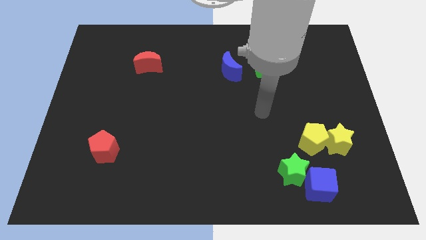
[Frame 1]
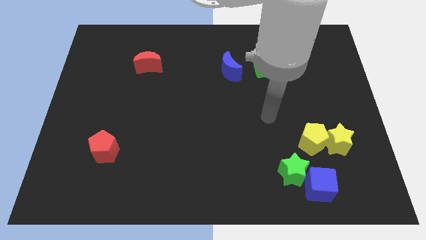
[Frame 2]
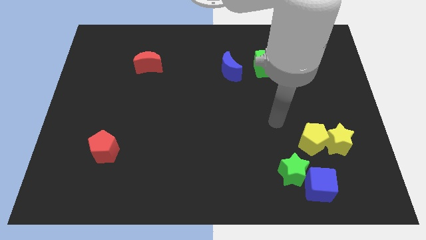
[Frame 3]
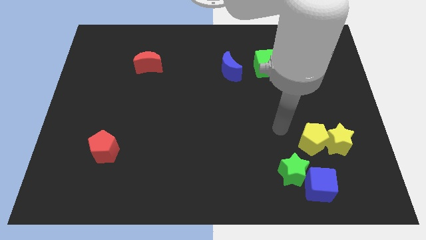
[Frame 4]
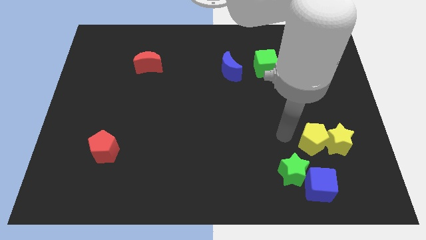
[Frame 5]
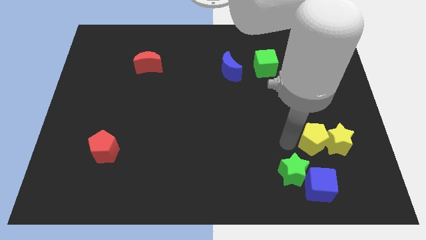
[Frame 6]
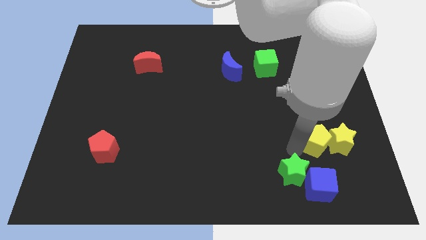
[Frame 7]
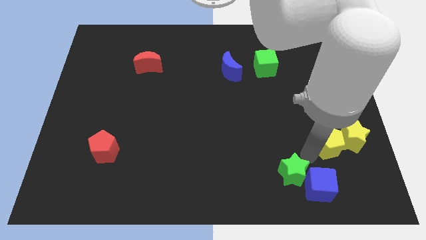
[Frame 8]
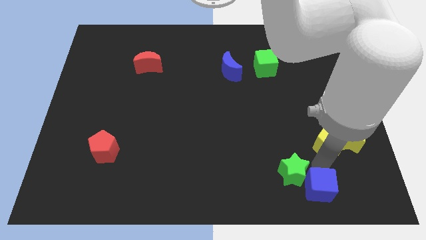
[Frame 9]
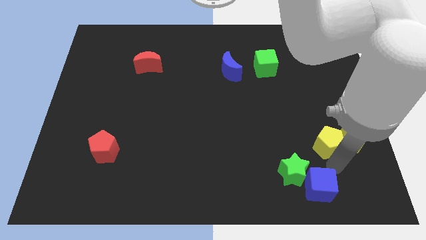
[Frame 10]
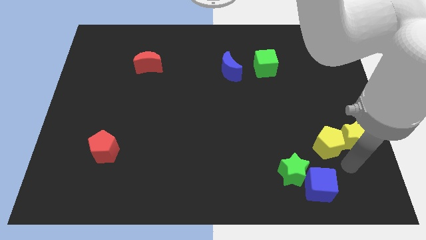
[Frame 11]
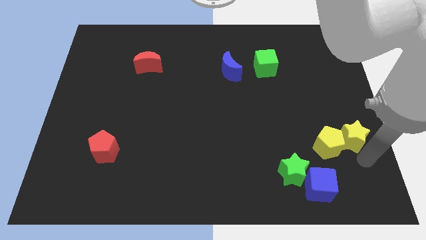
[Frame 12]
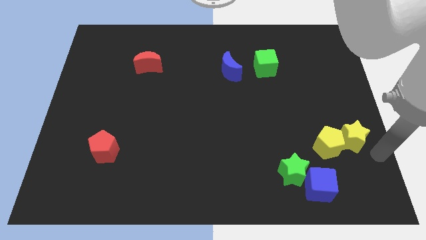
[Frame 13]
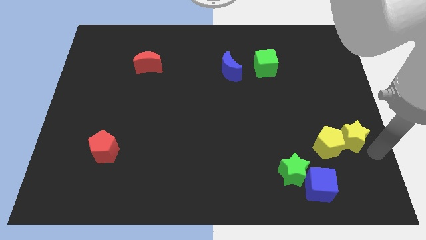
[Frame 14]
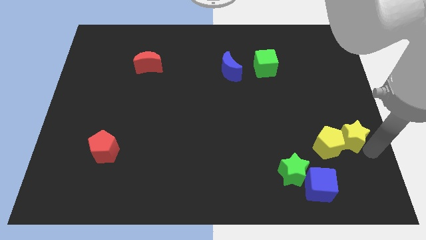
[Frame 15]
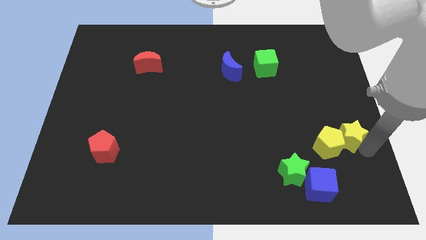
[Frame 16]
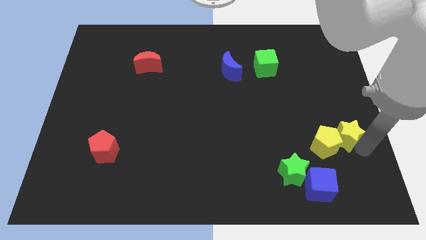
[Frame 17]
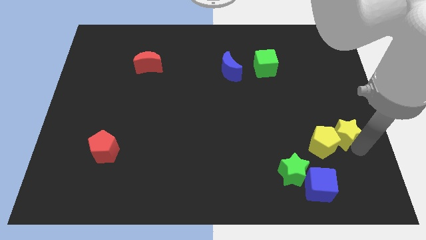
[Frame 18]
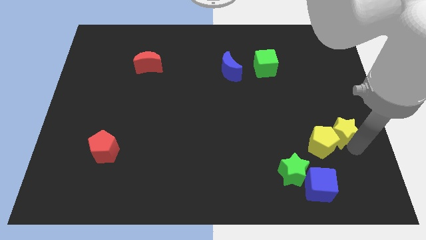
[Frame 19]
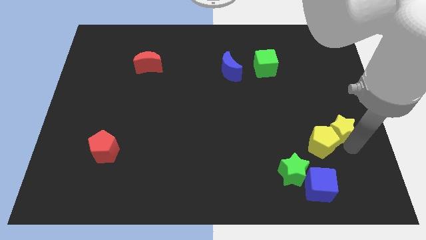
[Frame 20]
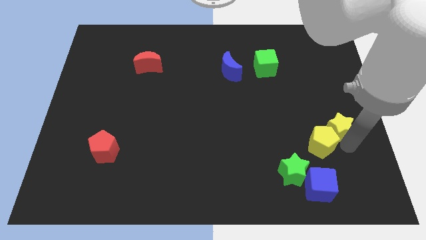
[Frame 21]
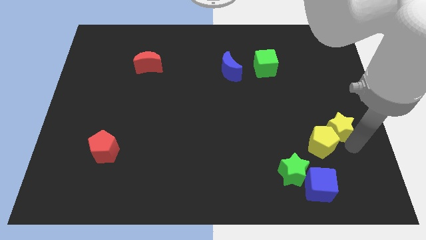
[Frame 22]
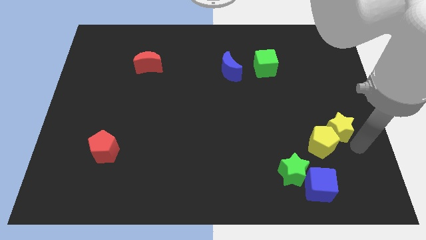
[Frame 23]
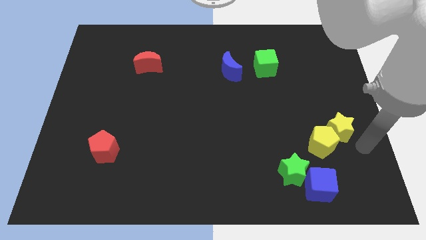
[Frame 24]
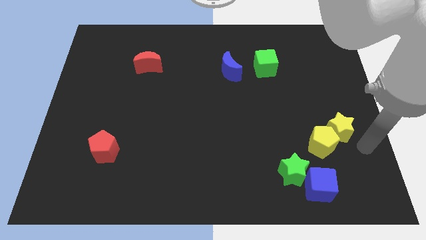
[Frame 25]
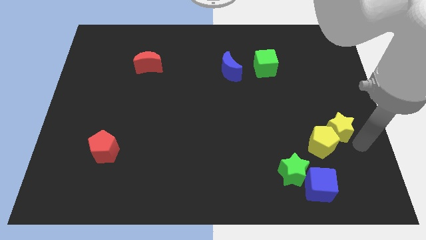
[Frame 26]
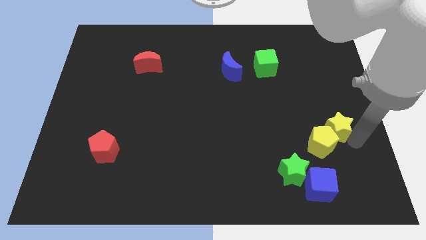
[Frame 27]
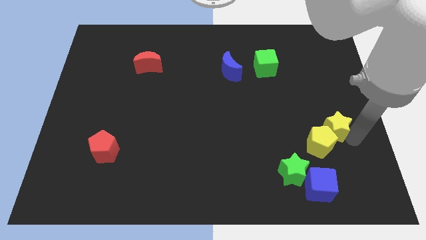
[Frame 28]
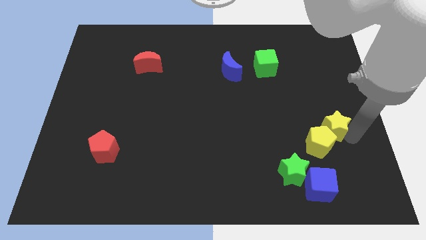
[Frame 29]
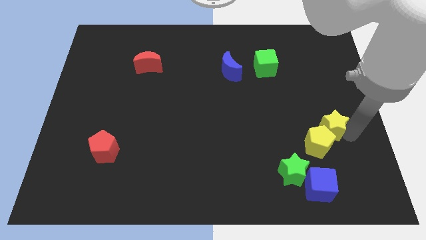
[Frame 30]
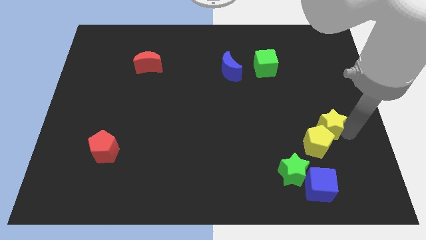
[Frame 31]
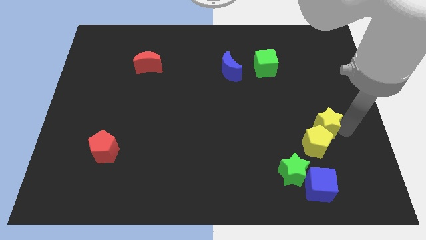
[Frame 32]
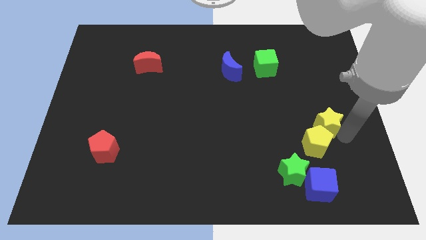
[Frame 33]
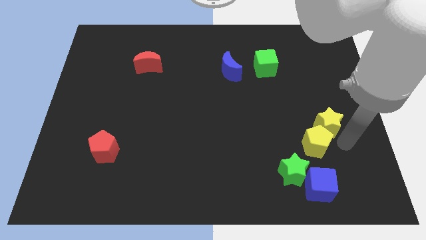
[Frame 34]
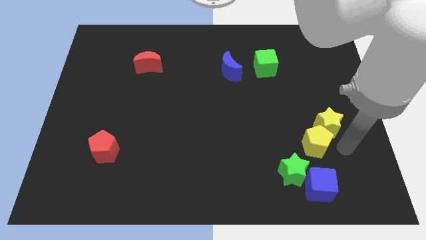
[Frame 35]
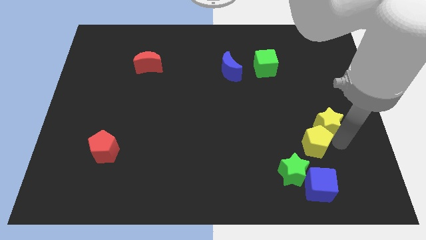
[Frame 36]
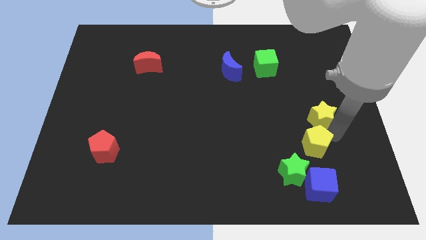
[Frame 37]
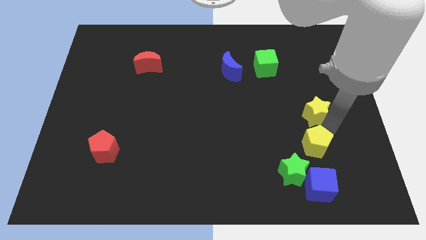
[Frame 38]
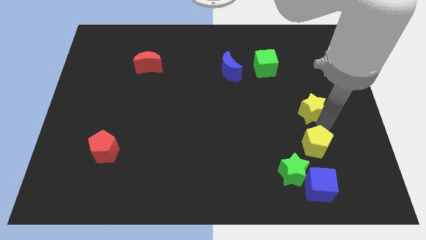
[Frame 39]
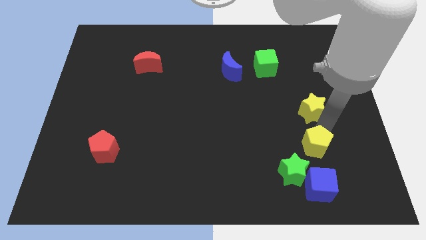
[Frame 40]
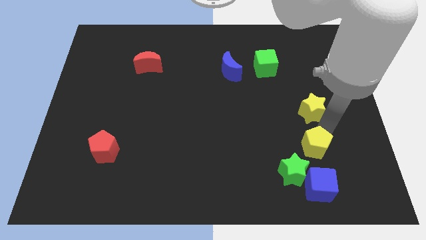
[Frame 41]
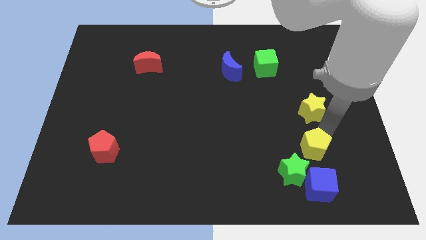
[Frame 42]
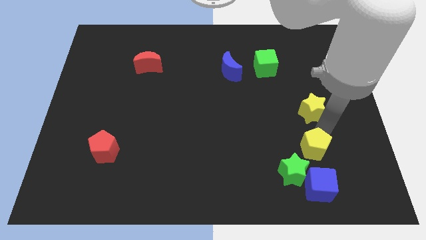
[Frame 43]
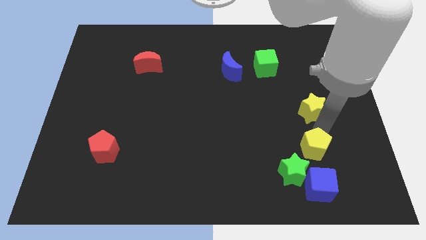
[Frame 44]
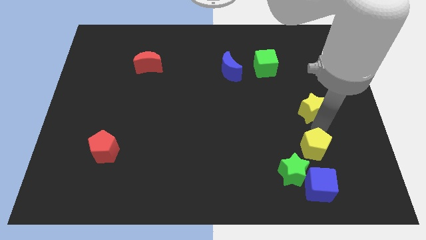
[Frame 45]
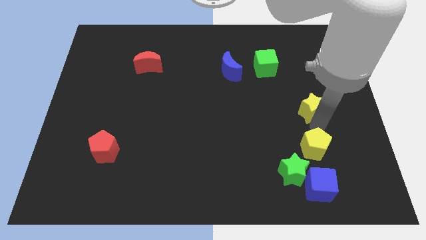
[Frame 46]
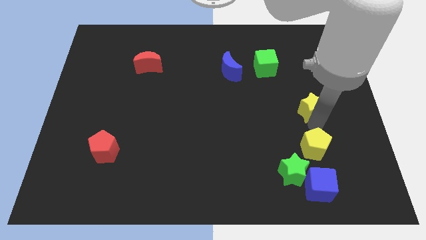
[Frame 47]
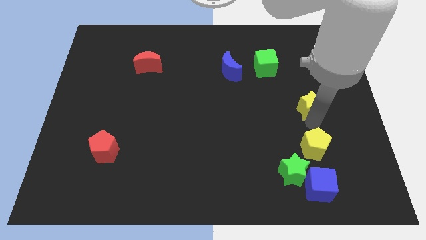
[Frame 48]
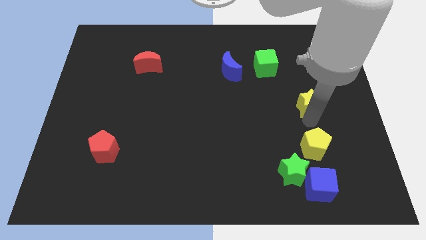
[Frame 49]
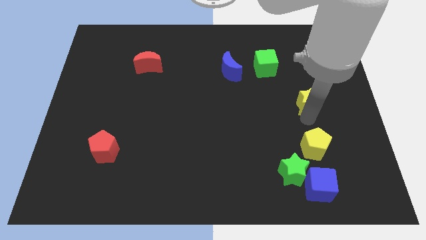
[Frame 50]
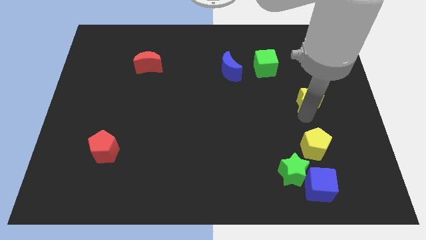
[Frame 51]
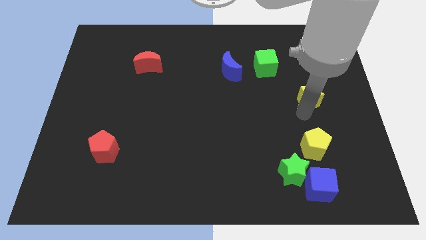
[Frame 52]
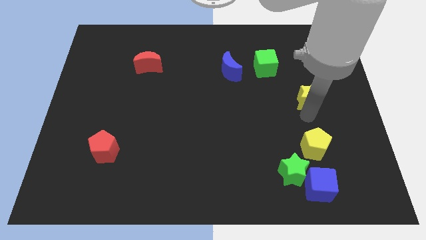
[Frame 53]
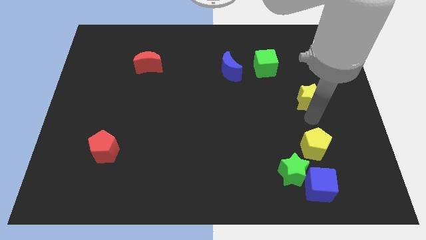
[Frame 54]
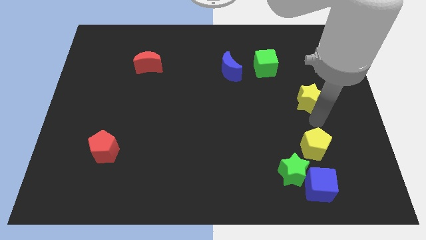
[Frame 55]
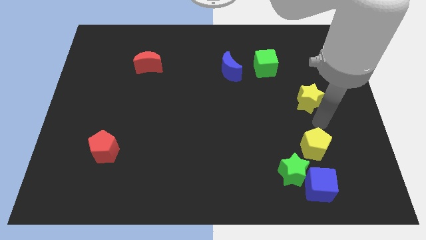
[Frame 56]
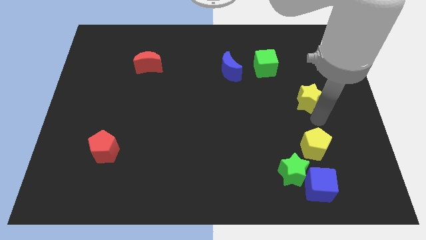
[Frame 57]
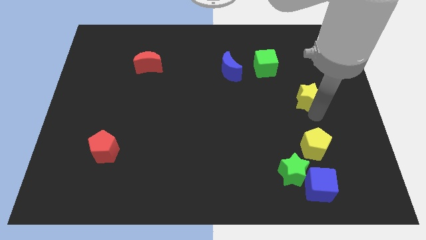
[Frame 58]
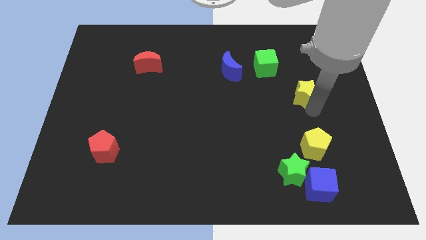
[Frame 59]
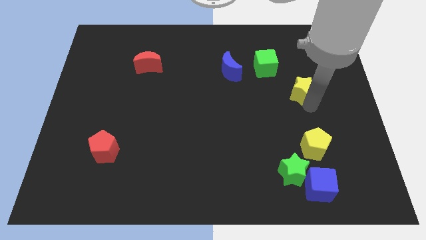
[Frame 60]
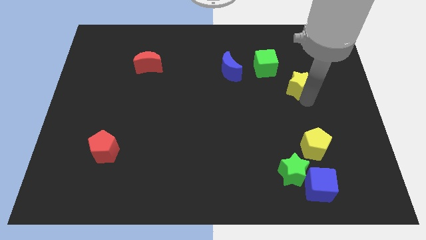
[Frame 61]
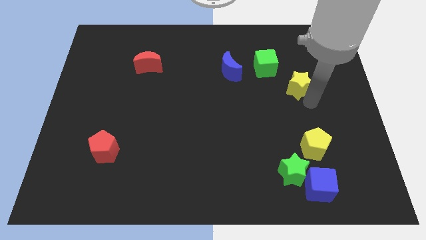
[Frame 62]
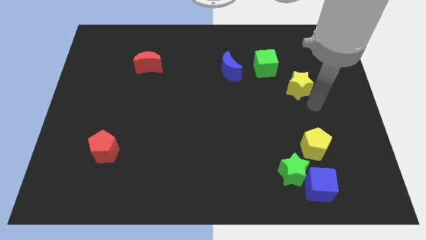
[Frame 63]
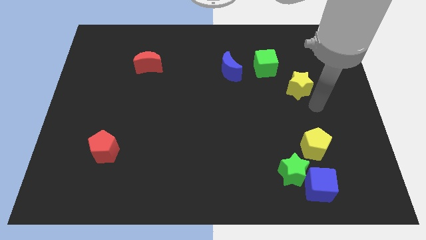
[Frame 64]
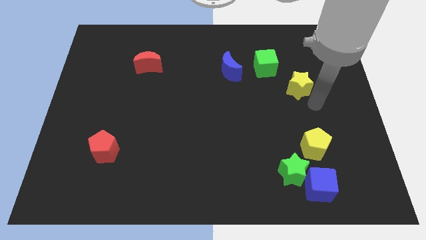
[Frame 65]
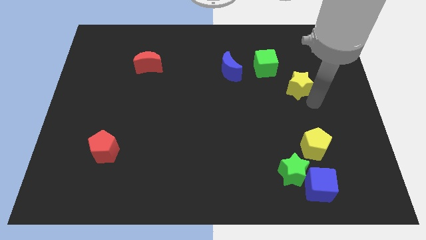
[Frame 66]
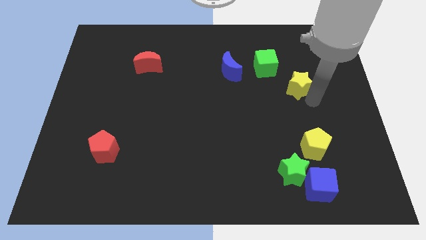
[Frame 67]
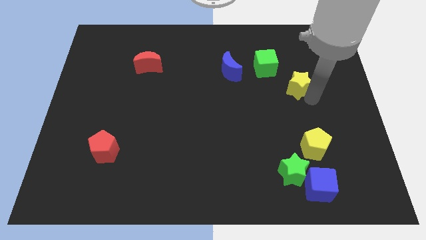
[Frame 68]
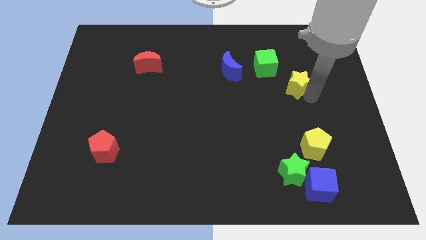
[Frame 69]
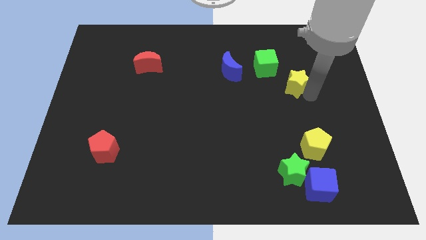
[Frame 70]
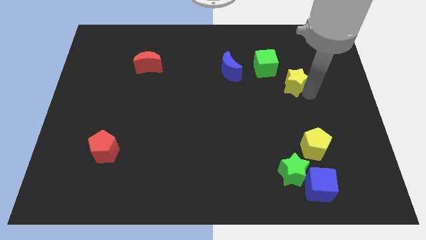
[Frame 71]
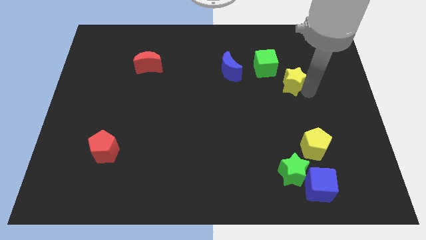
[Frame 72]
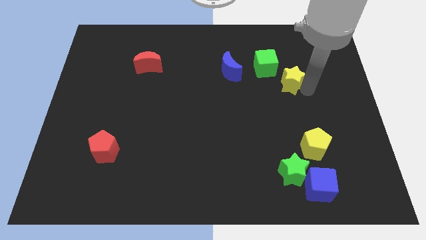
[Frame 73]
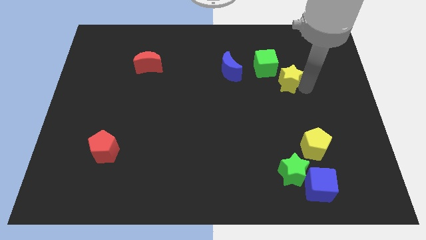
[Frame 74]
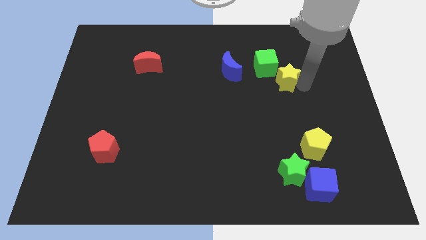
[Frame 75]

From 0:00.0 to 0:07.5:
push the yellow star just right of the blue moon
